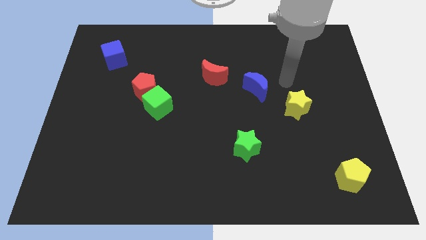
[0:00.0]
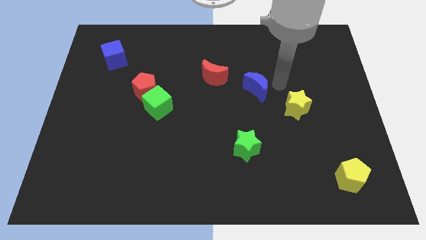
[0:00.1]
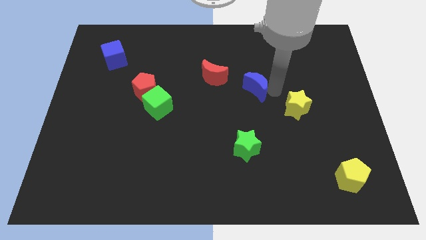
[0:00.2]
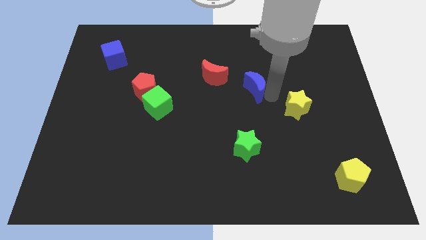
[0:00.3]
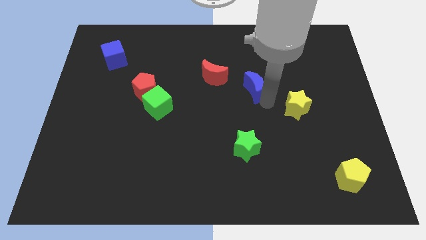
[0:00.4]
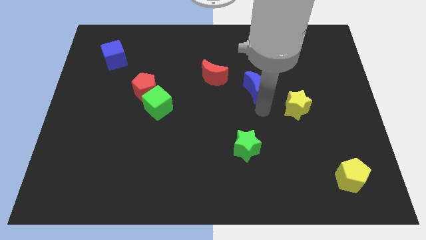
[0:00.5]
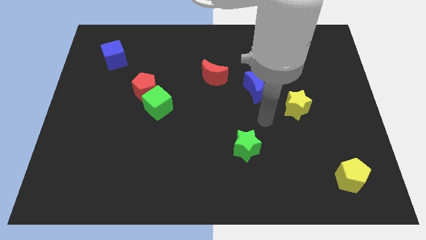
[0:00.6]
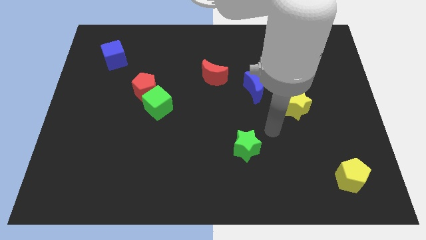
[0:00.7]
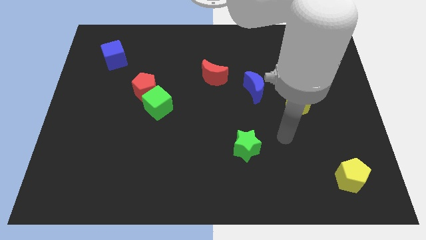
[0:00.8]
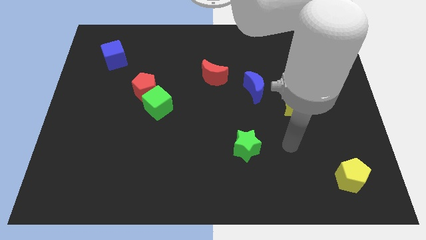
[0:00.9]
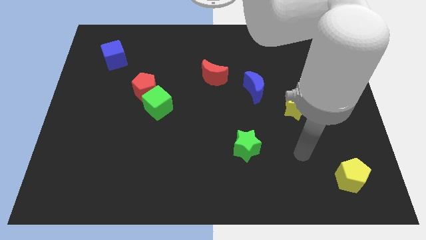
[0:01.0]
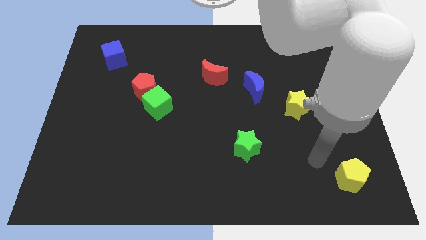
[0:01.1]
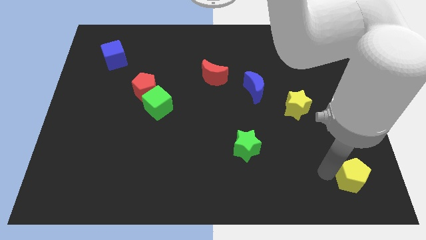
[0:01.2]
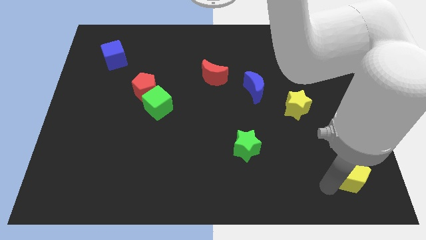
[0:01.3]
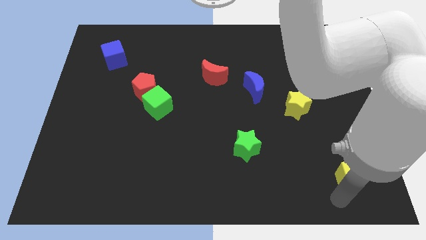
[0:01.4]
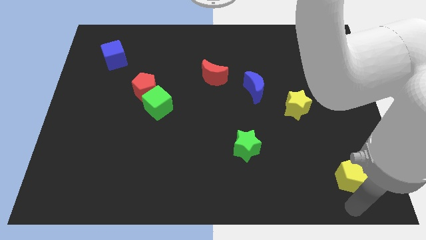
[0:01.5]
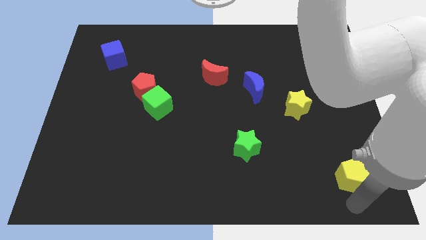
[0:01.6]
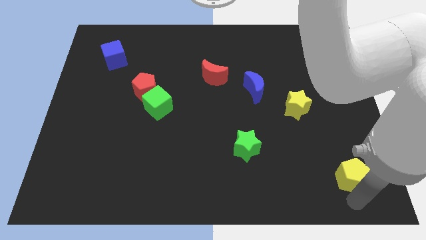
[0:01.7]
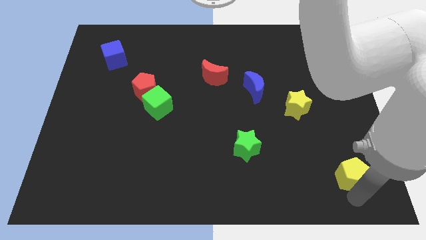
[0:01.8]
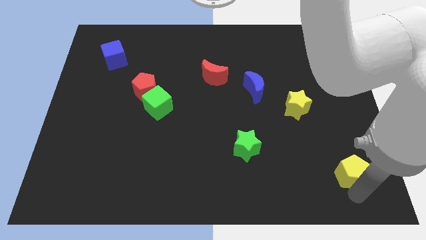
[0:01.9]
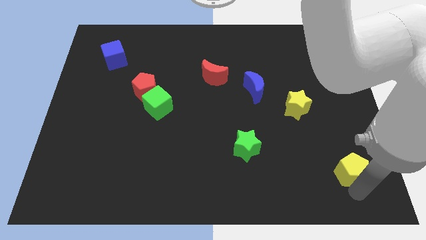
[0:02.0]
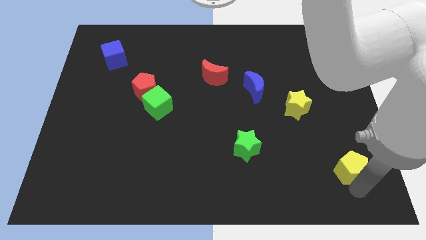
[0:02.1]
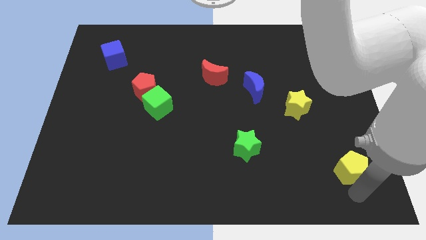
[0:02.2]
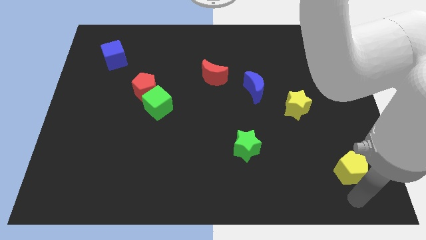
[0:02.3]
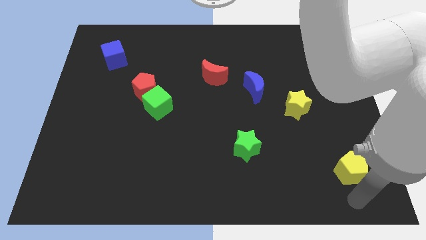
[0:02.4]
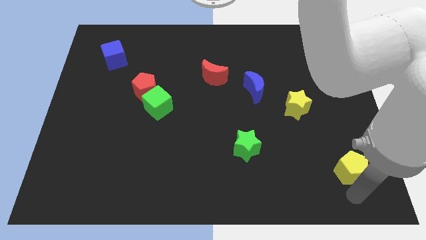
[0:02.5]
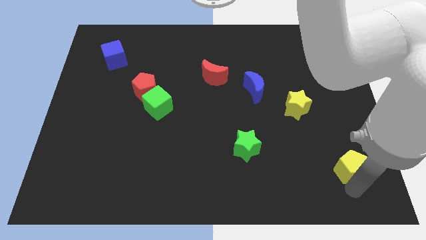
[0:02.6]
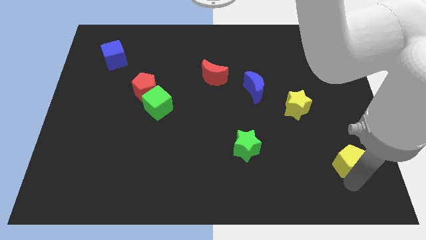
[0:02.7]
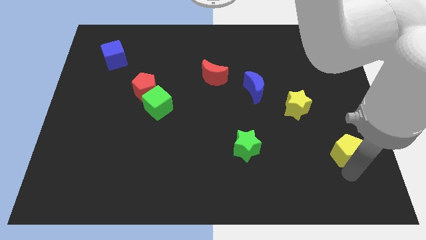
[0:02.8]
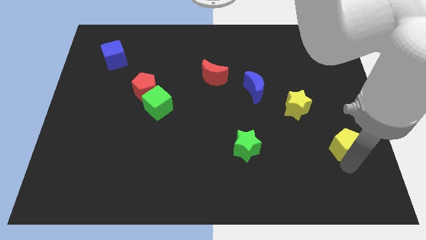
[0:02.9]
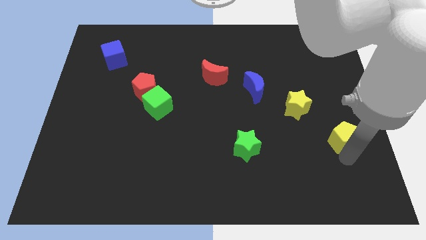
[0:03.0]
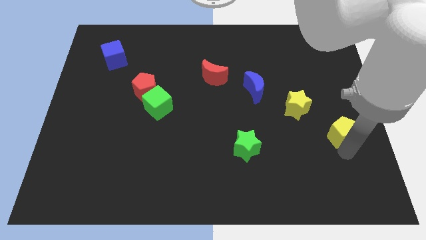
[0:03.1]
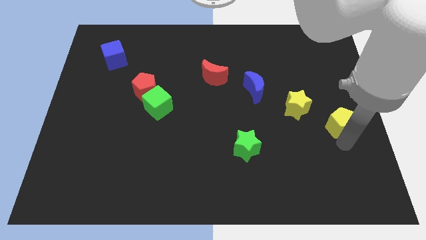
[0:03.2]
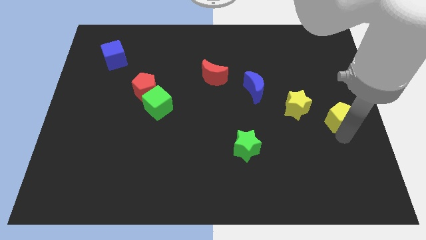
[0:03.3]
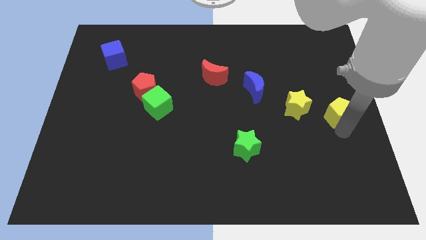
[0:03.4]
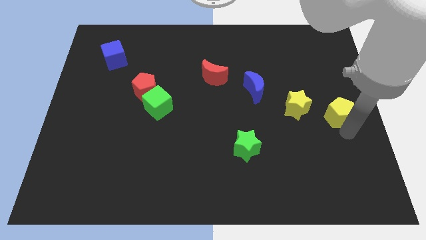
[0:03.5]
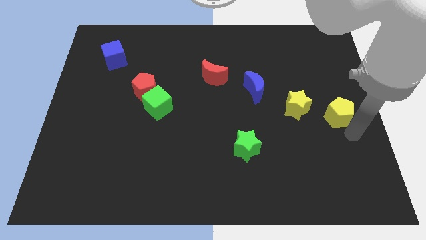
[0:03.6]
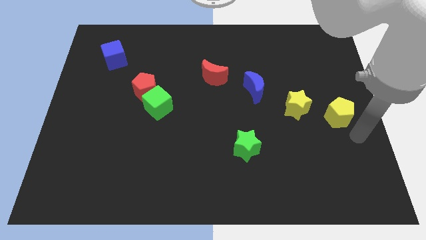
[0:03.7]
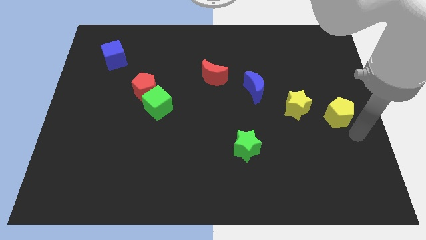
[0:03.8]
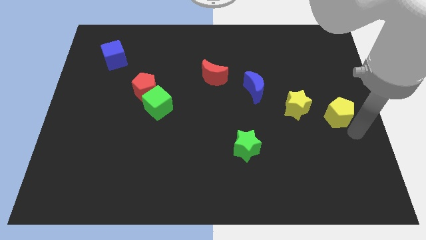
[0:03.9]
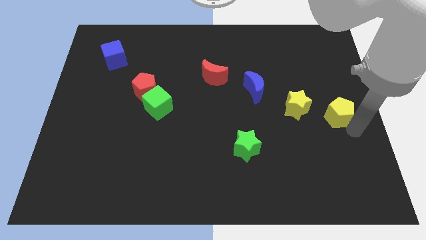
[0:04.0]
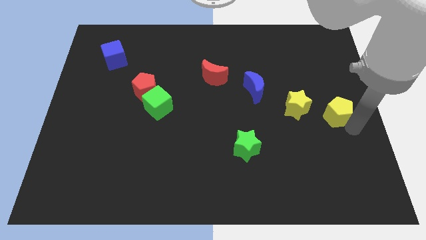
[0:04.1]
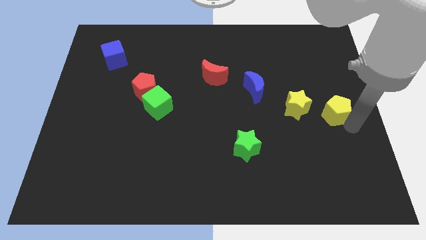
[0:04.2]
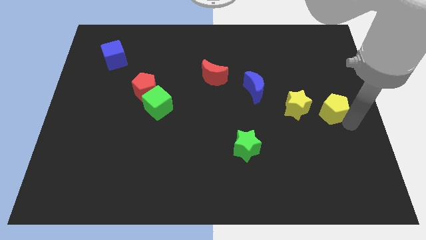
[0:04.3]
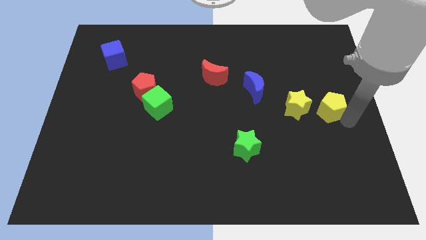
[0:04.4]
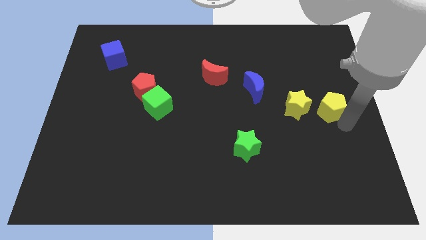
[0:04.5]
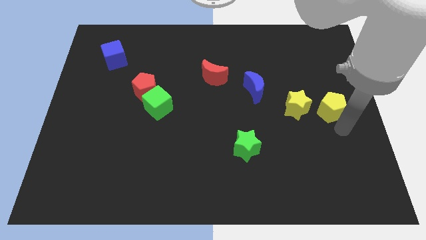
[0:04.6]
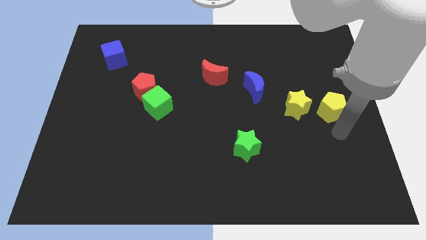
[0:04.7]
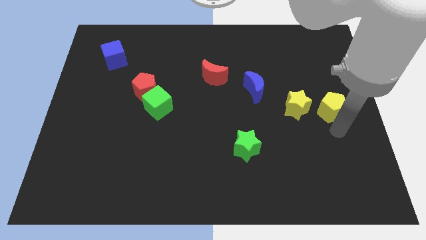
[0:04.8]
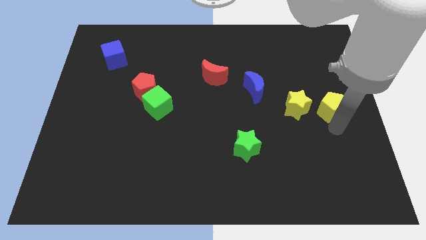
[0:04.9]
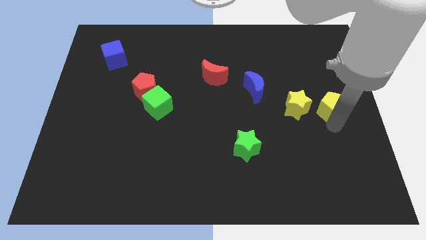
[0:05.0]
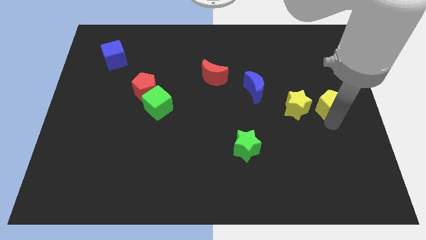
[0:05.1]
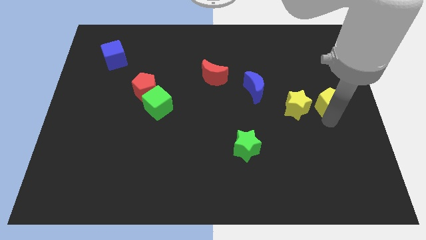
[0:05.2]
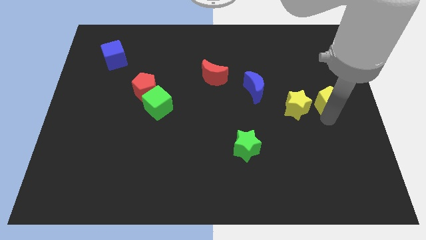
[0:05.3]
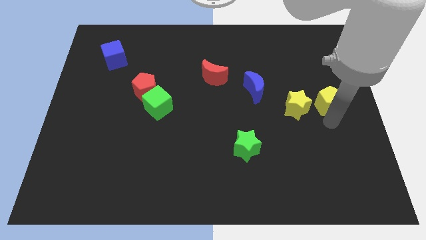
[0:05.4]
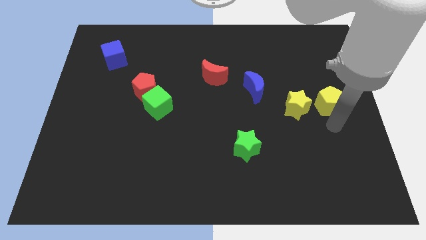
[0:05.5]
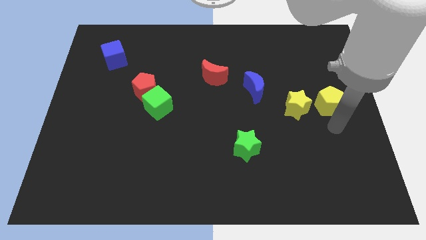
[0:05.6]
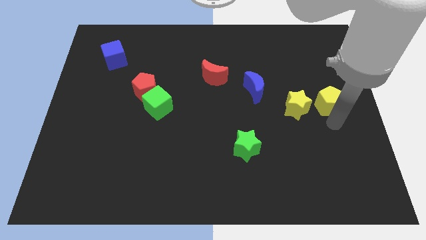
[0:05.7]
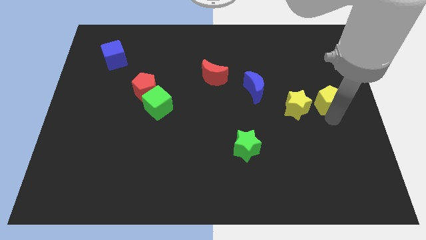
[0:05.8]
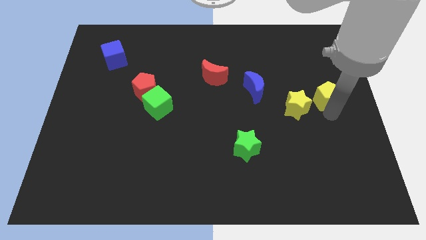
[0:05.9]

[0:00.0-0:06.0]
slide the yellow pentagon up

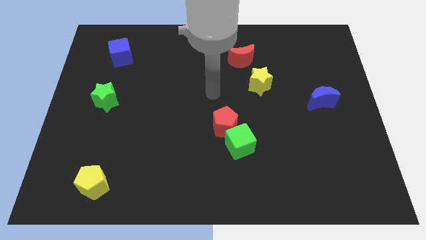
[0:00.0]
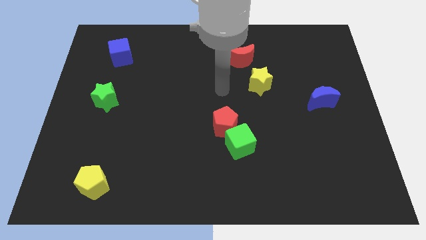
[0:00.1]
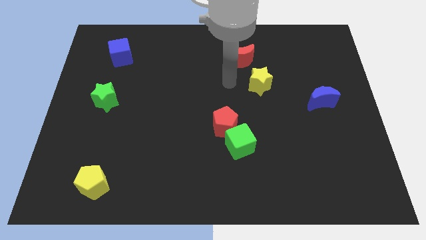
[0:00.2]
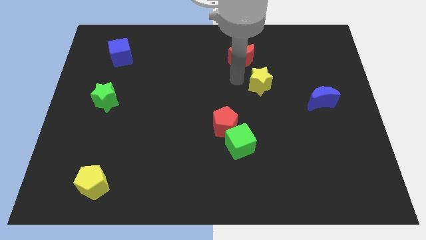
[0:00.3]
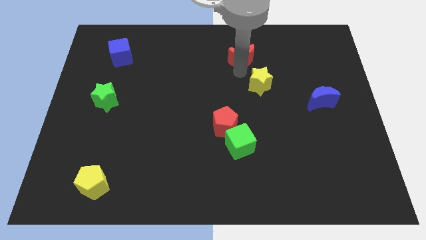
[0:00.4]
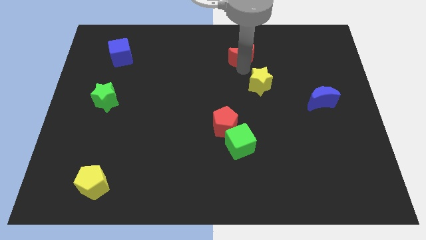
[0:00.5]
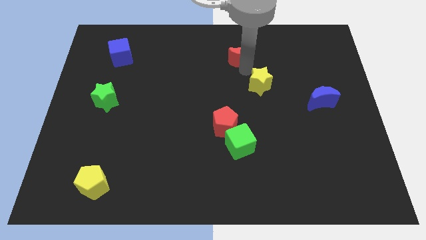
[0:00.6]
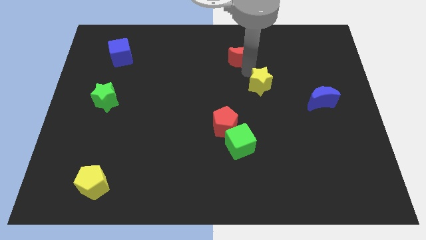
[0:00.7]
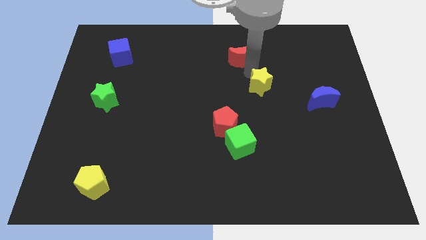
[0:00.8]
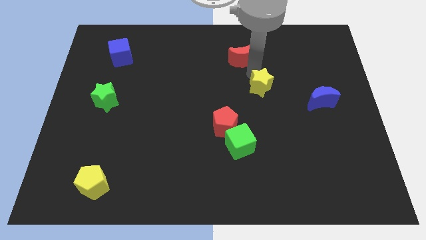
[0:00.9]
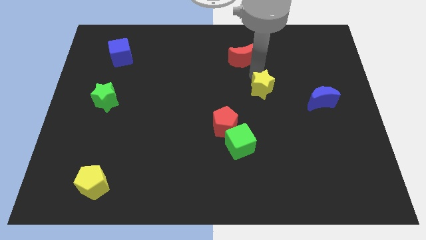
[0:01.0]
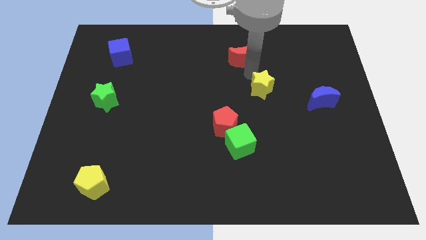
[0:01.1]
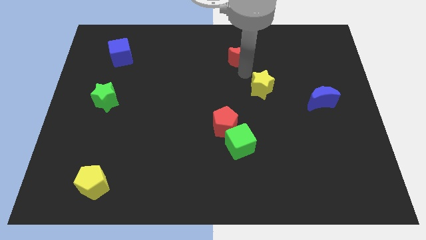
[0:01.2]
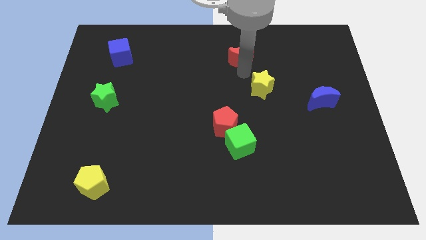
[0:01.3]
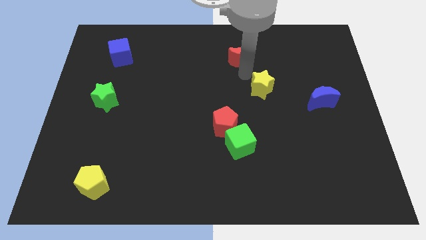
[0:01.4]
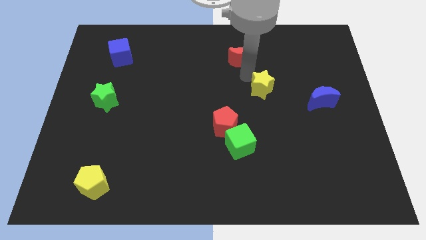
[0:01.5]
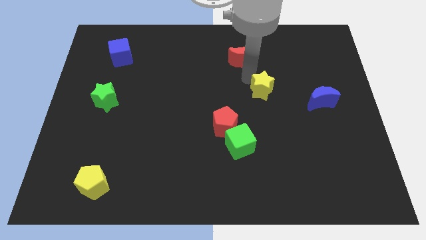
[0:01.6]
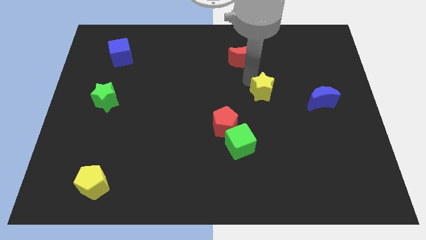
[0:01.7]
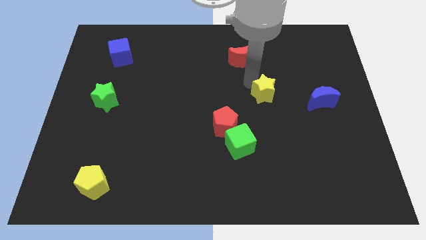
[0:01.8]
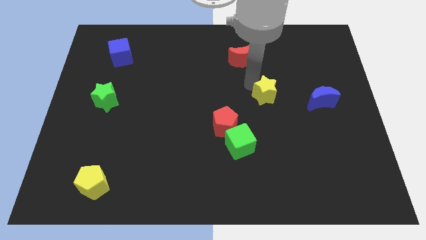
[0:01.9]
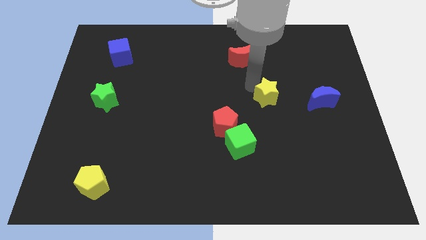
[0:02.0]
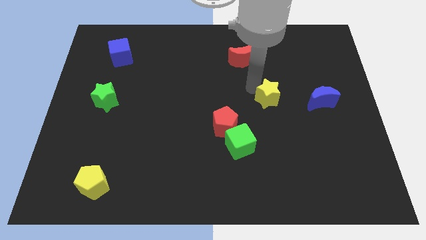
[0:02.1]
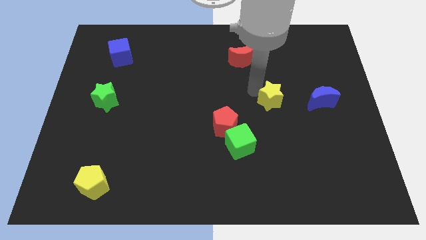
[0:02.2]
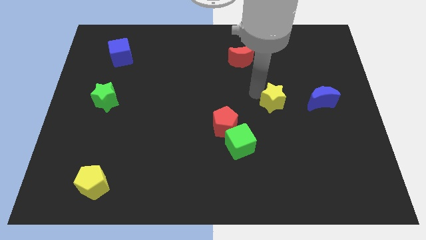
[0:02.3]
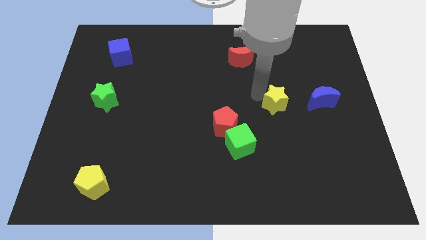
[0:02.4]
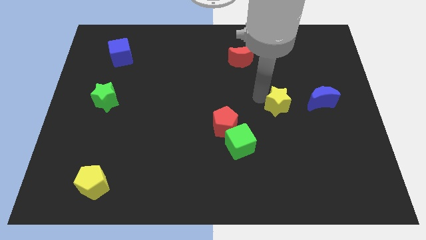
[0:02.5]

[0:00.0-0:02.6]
slightly push the yellow star downwards and then to the right
